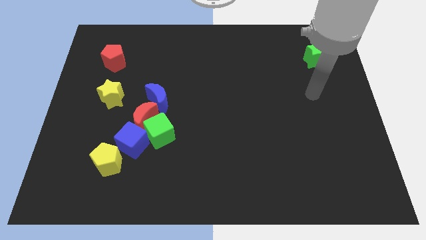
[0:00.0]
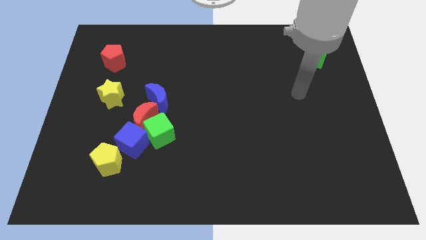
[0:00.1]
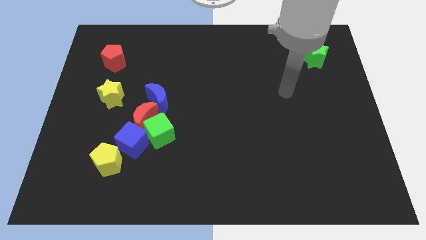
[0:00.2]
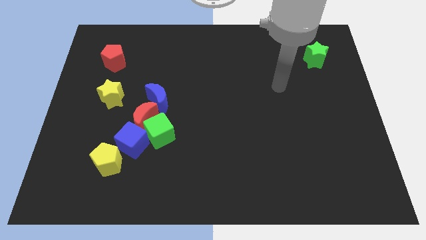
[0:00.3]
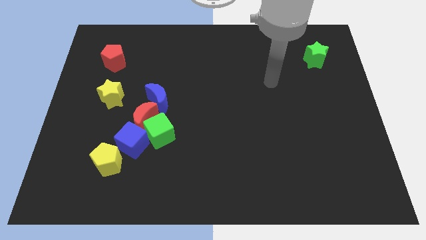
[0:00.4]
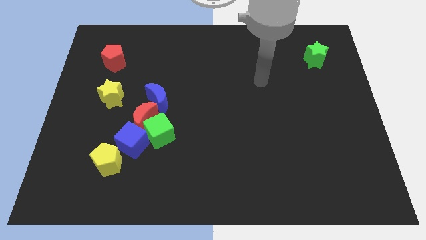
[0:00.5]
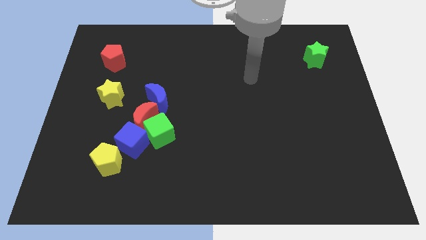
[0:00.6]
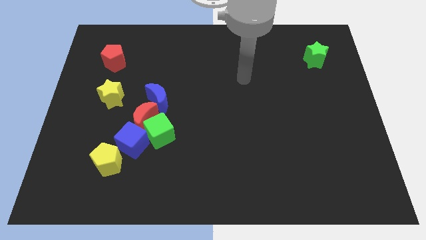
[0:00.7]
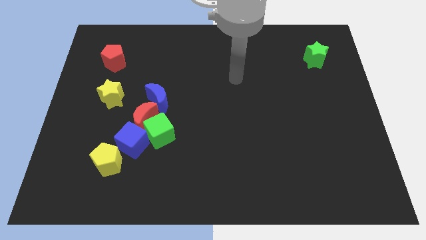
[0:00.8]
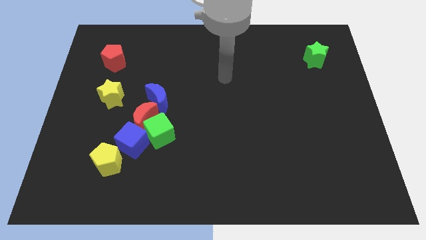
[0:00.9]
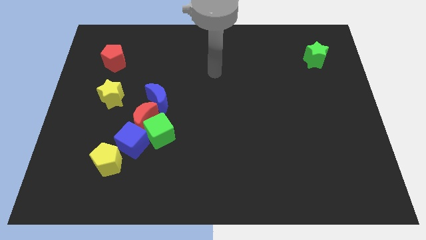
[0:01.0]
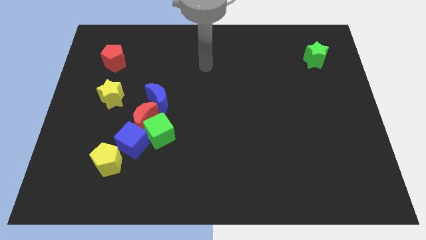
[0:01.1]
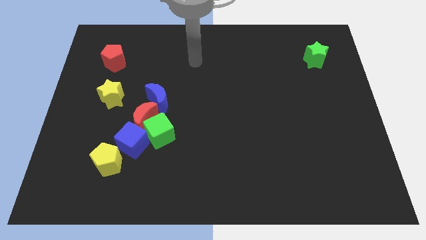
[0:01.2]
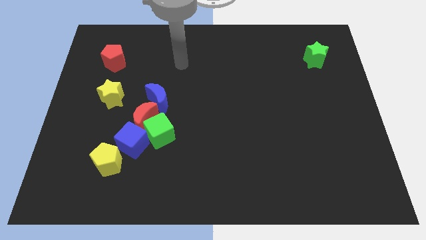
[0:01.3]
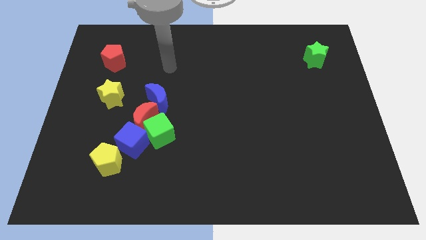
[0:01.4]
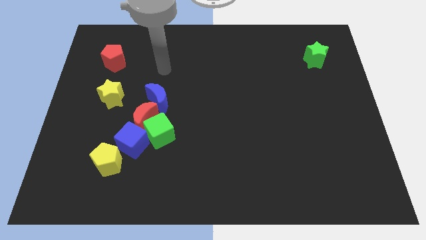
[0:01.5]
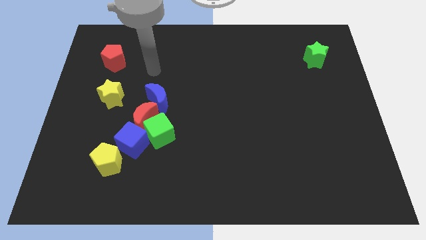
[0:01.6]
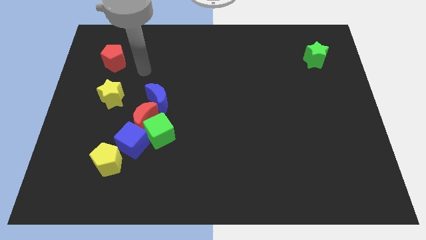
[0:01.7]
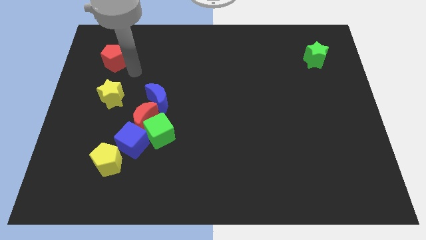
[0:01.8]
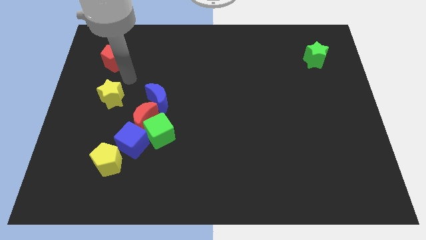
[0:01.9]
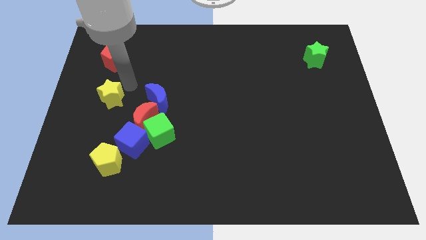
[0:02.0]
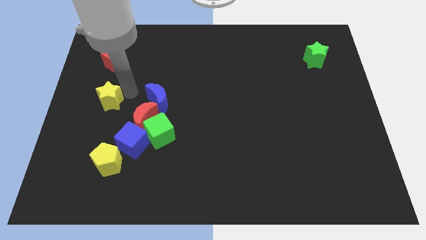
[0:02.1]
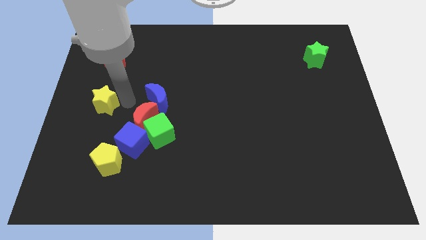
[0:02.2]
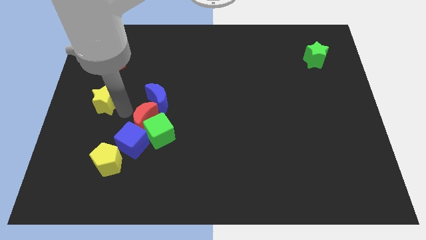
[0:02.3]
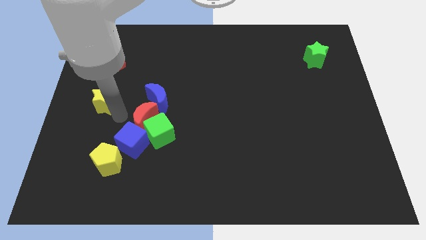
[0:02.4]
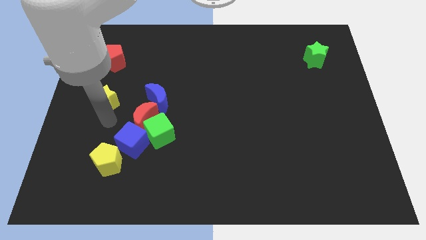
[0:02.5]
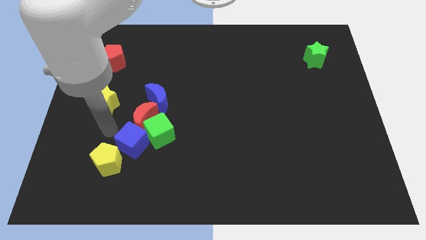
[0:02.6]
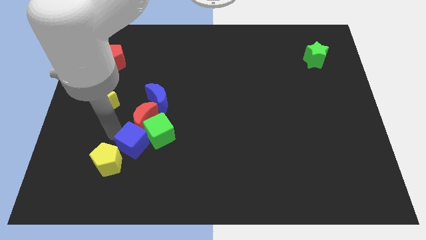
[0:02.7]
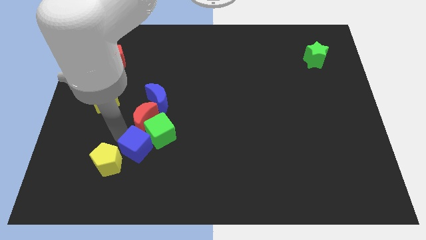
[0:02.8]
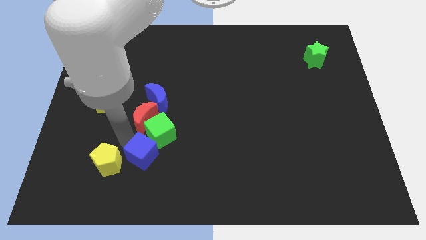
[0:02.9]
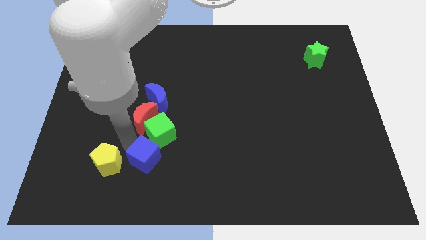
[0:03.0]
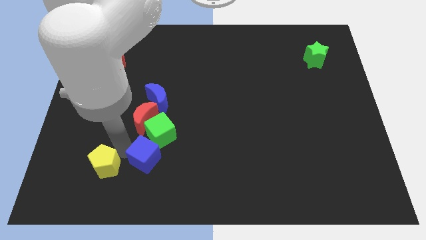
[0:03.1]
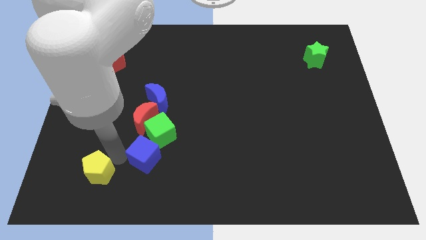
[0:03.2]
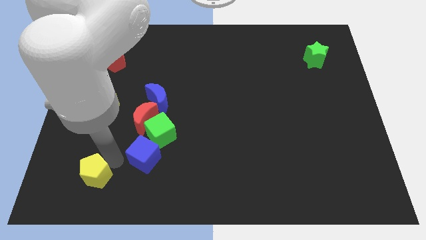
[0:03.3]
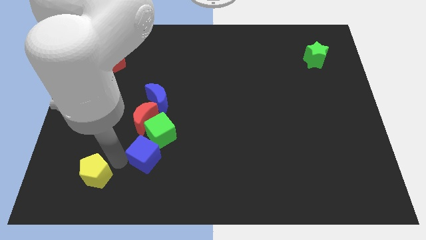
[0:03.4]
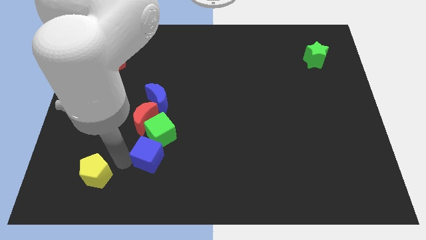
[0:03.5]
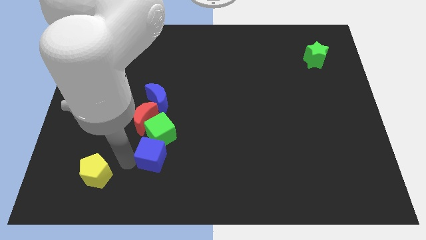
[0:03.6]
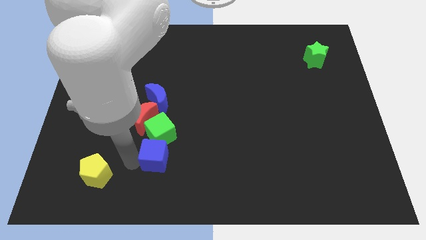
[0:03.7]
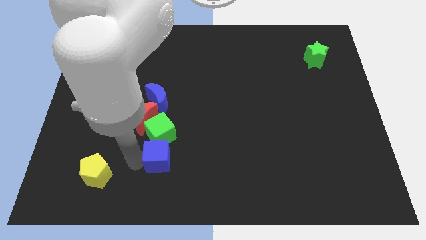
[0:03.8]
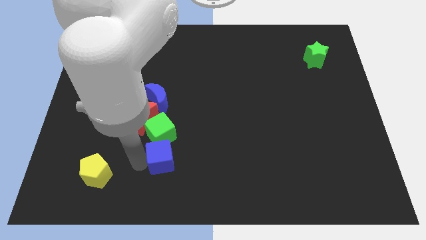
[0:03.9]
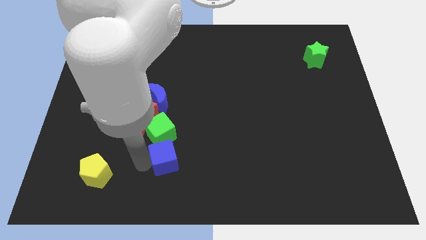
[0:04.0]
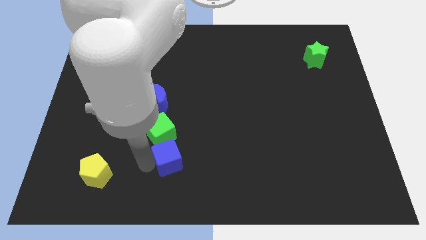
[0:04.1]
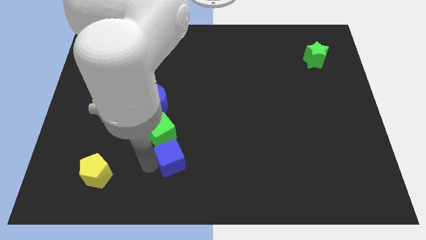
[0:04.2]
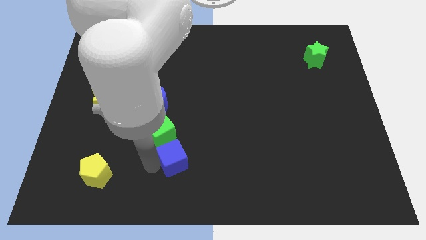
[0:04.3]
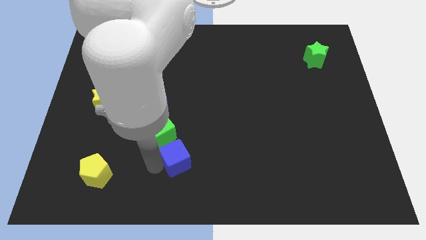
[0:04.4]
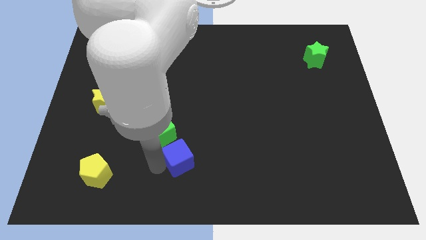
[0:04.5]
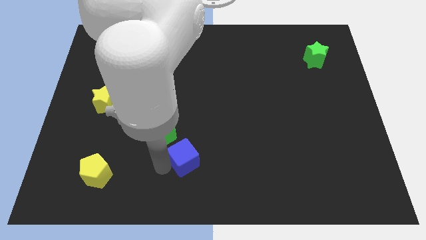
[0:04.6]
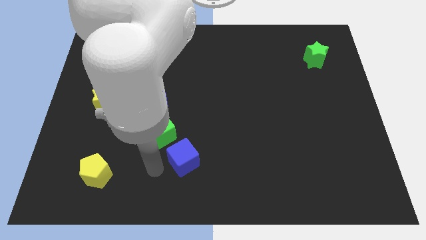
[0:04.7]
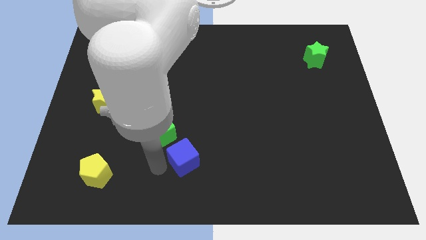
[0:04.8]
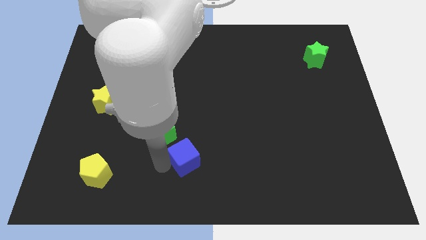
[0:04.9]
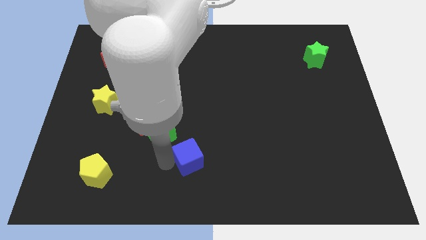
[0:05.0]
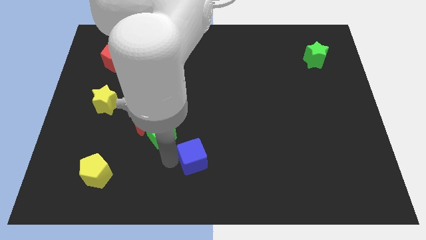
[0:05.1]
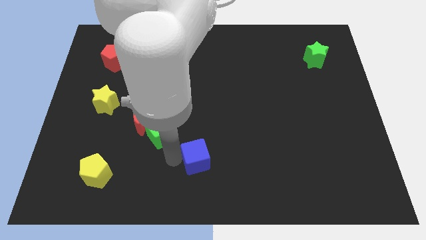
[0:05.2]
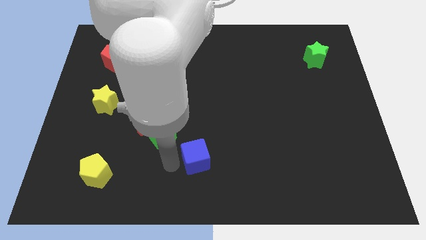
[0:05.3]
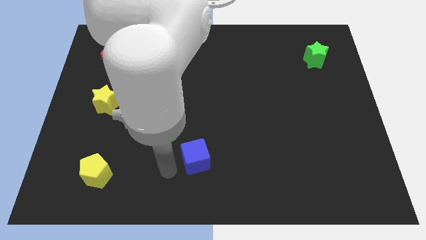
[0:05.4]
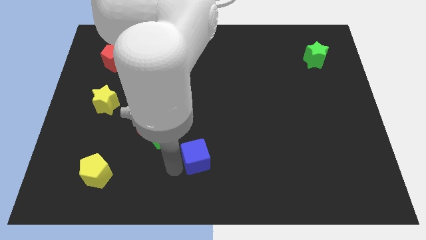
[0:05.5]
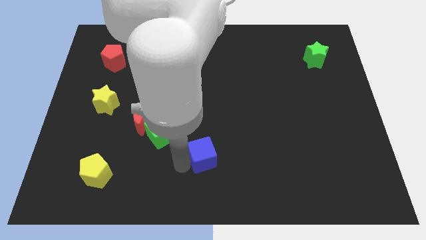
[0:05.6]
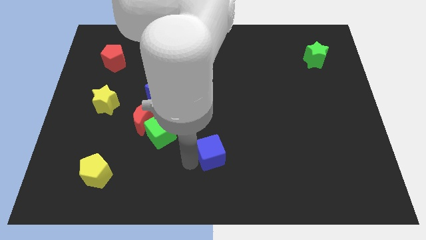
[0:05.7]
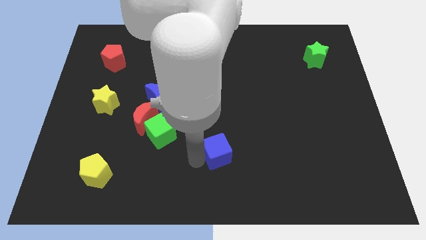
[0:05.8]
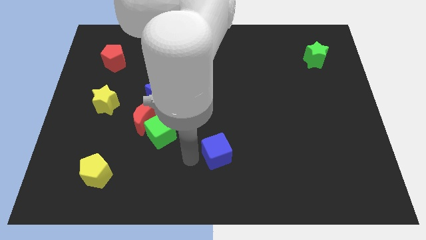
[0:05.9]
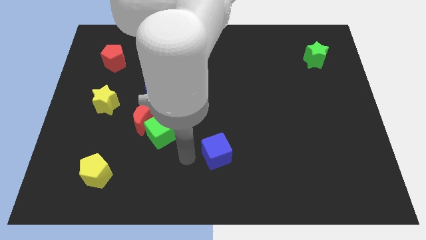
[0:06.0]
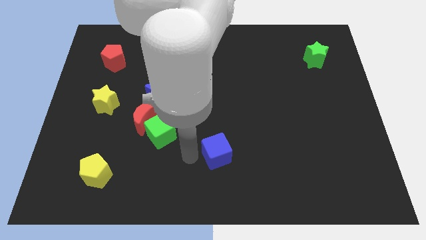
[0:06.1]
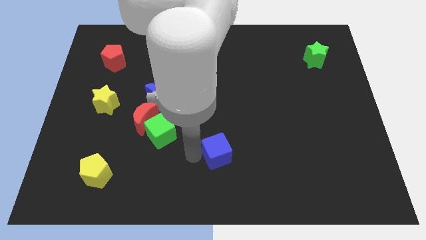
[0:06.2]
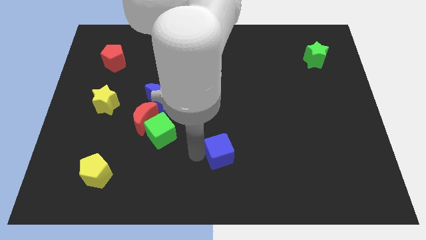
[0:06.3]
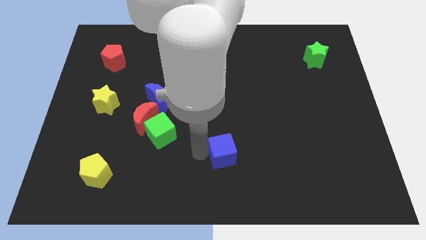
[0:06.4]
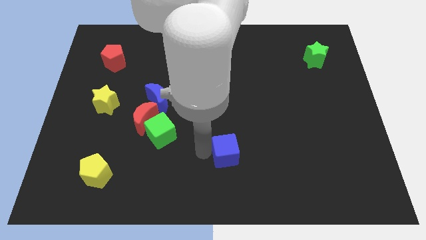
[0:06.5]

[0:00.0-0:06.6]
slide the blue cube right

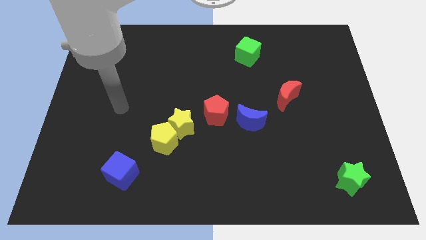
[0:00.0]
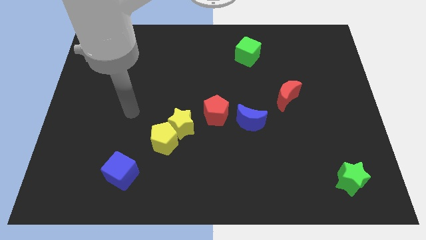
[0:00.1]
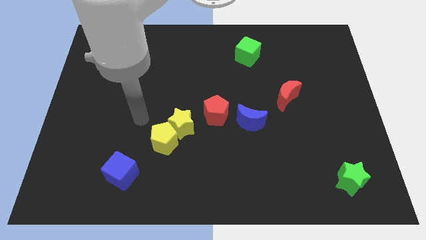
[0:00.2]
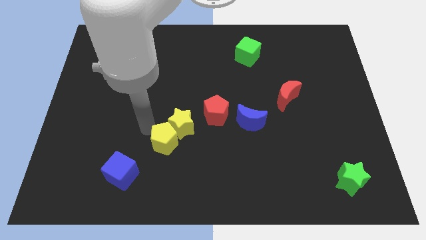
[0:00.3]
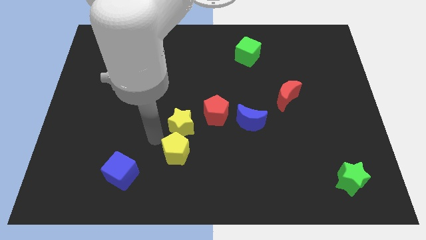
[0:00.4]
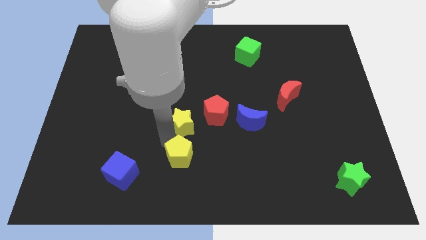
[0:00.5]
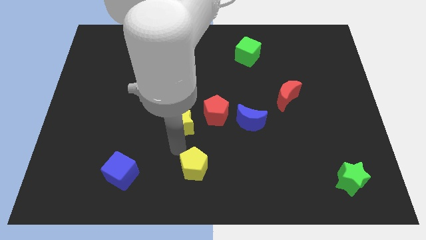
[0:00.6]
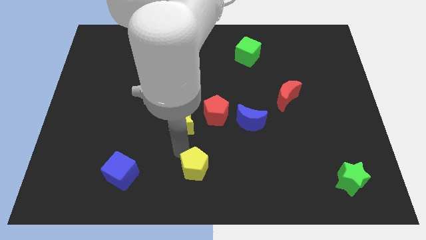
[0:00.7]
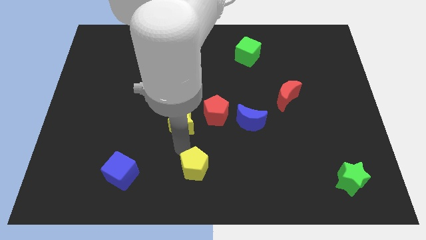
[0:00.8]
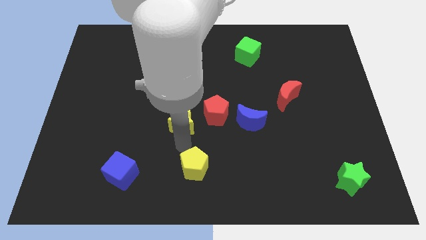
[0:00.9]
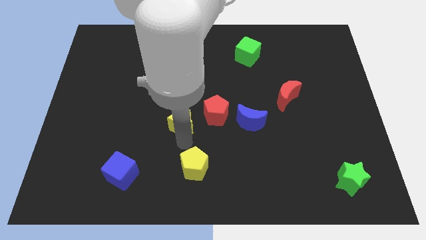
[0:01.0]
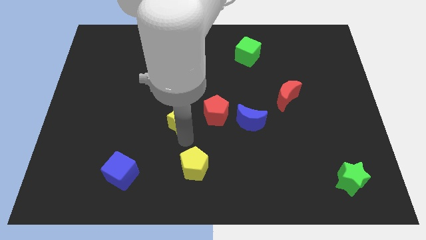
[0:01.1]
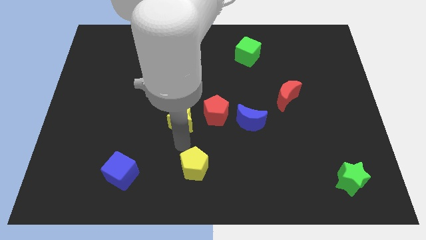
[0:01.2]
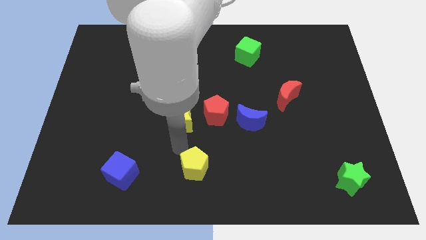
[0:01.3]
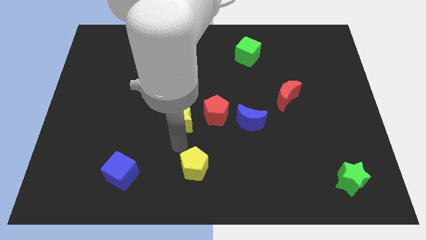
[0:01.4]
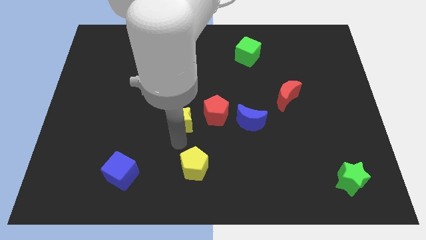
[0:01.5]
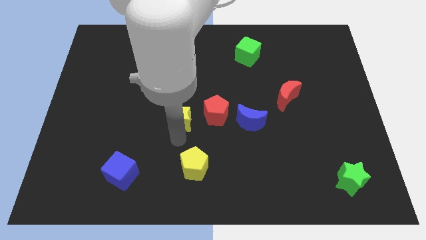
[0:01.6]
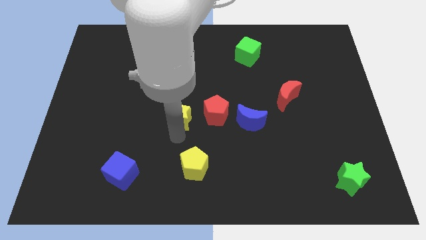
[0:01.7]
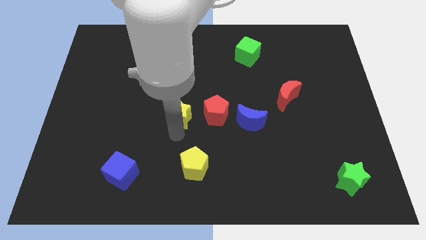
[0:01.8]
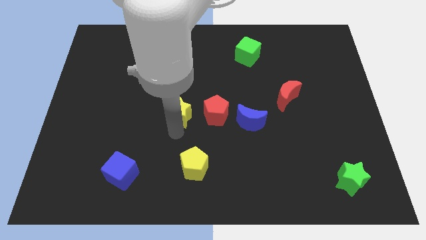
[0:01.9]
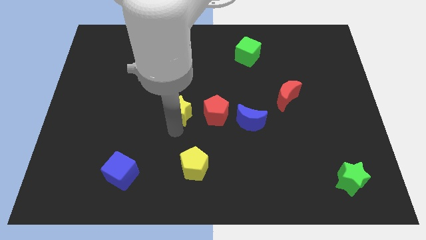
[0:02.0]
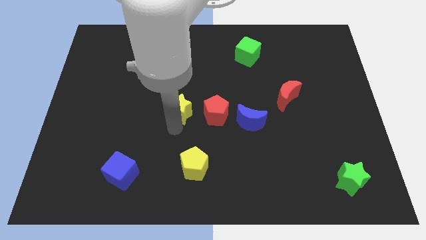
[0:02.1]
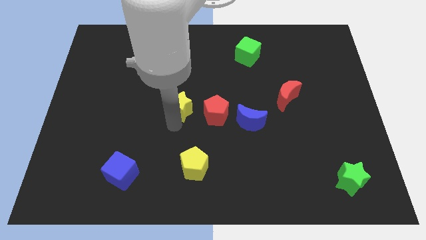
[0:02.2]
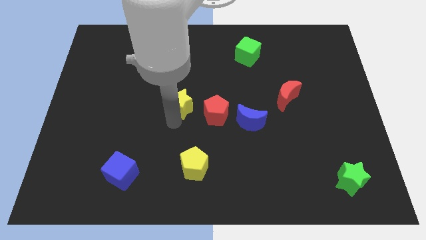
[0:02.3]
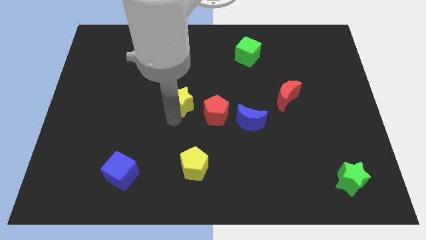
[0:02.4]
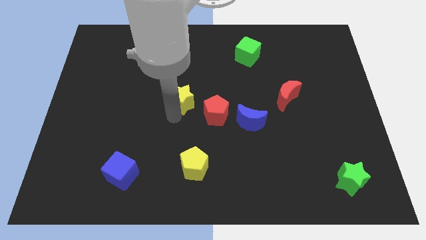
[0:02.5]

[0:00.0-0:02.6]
slightly move the yellow star upwards
